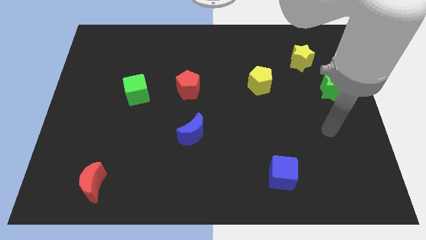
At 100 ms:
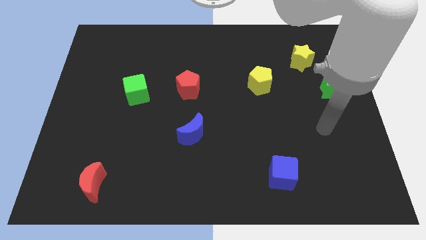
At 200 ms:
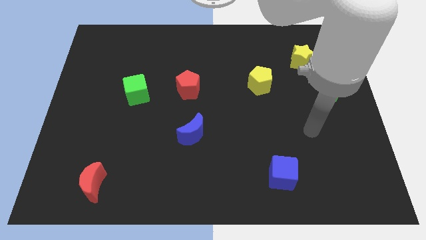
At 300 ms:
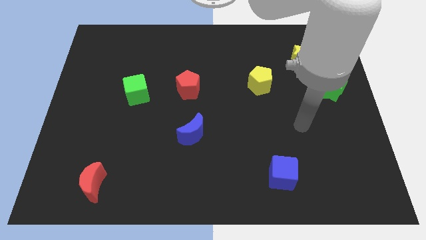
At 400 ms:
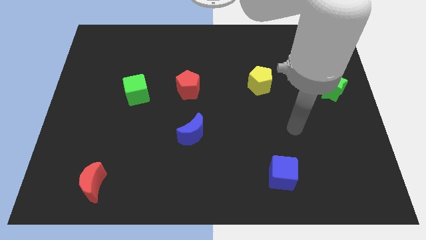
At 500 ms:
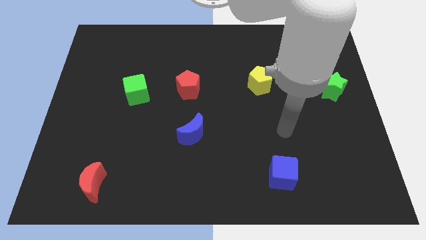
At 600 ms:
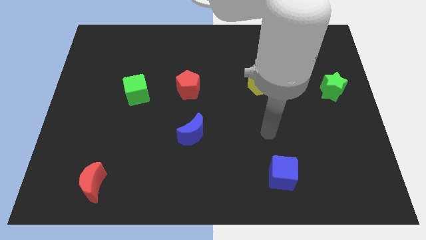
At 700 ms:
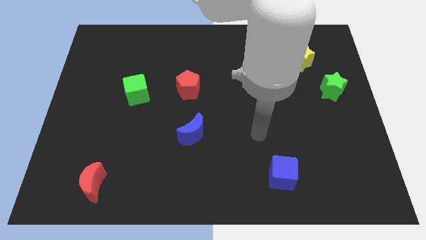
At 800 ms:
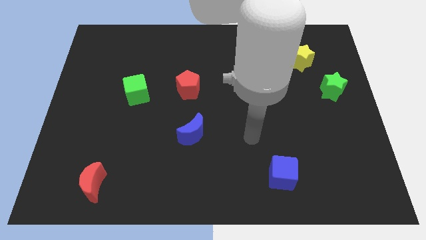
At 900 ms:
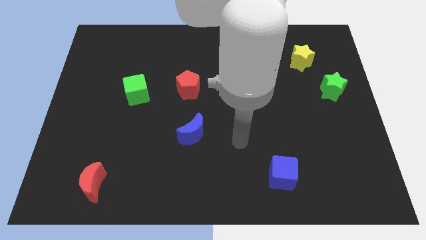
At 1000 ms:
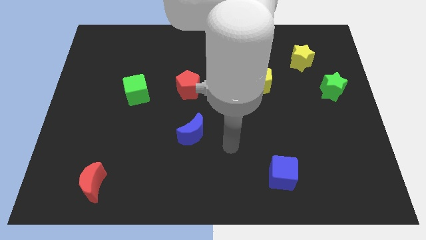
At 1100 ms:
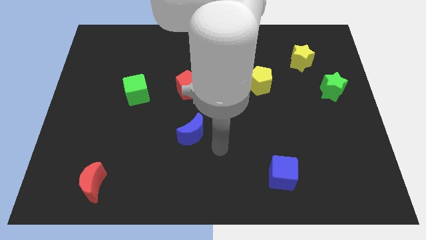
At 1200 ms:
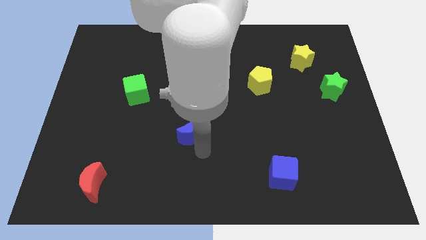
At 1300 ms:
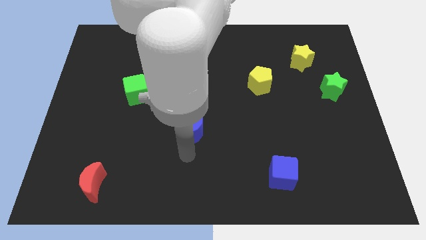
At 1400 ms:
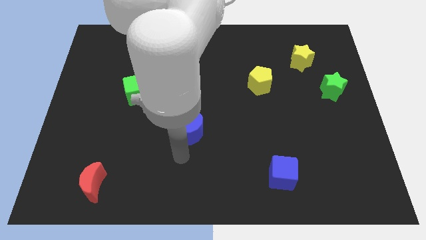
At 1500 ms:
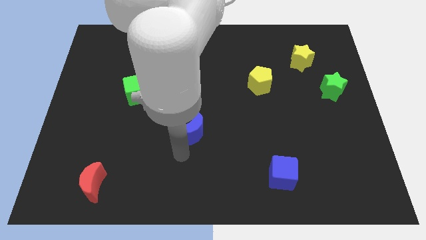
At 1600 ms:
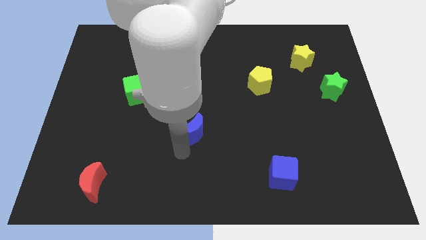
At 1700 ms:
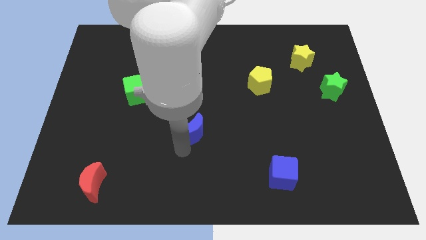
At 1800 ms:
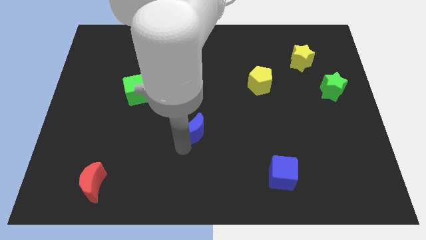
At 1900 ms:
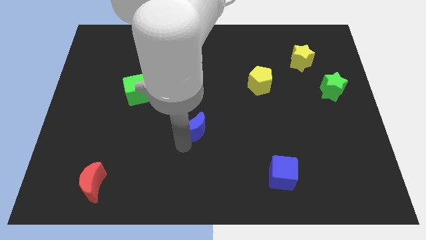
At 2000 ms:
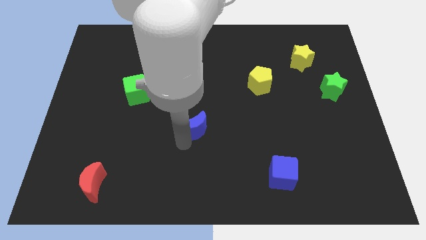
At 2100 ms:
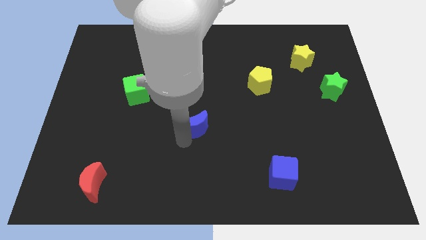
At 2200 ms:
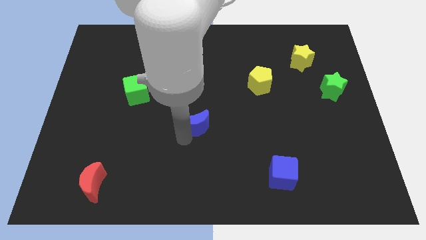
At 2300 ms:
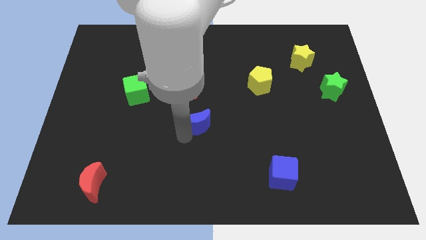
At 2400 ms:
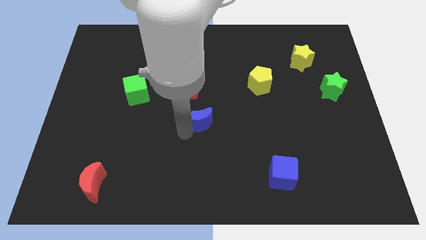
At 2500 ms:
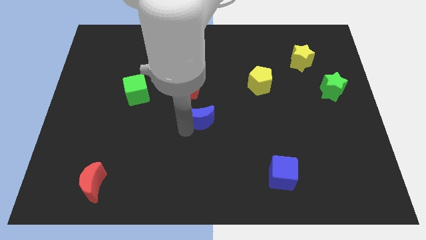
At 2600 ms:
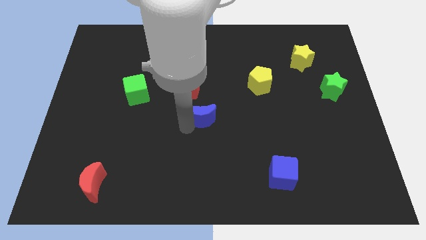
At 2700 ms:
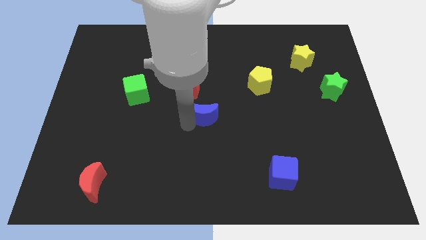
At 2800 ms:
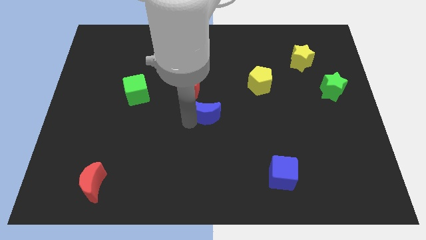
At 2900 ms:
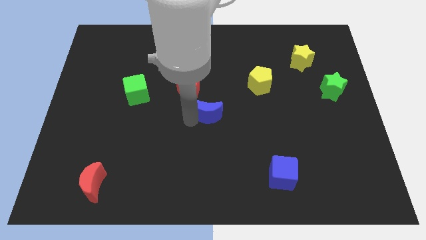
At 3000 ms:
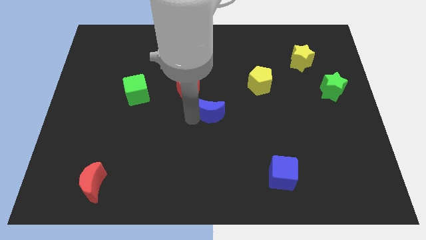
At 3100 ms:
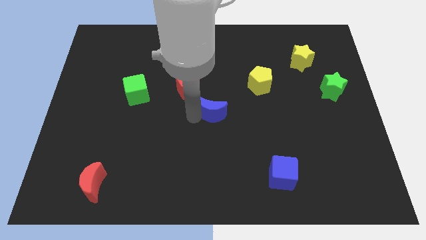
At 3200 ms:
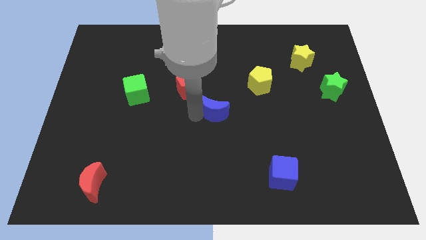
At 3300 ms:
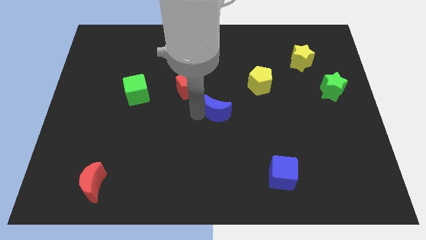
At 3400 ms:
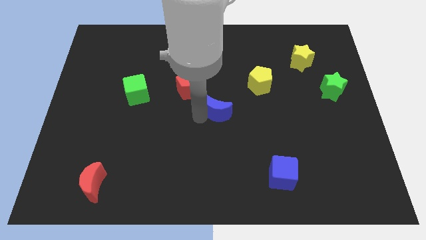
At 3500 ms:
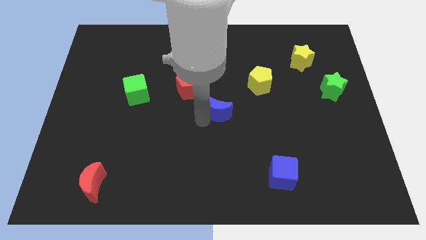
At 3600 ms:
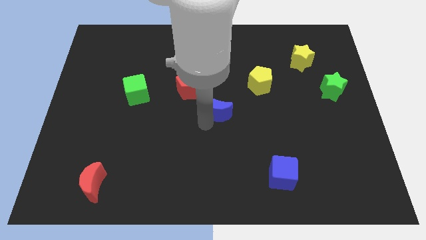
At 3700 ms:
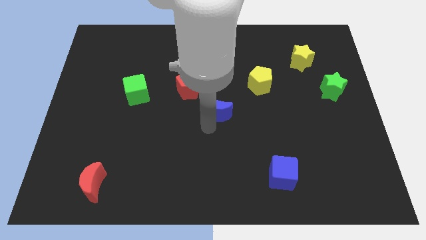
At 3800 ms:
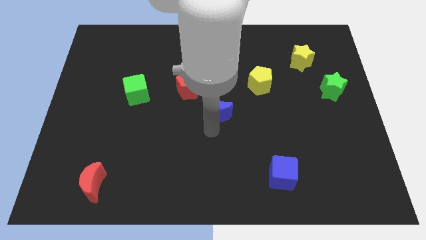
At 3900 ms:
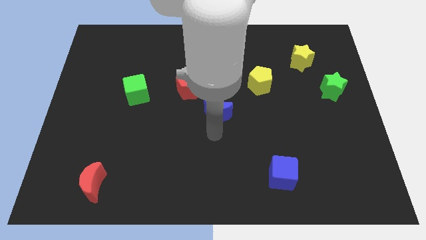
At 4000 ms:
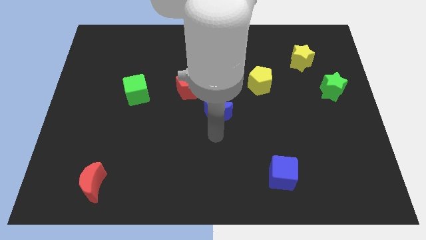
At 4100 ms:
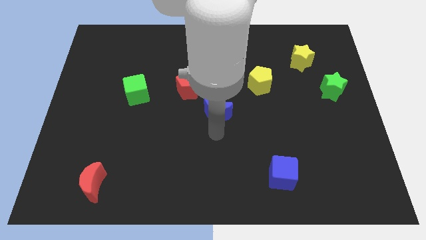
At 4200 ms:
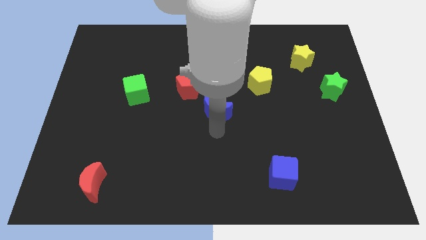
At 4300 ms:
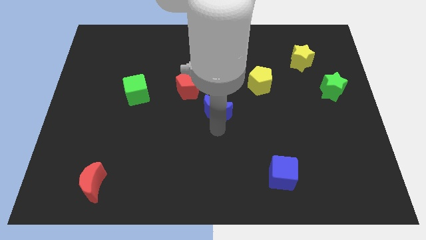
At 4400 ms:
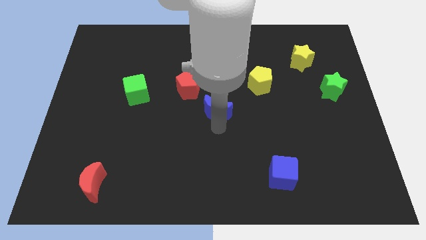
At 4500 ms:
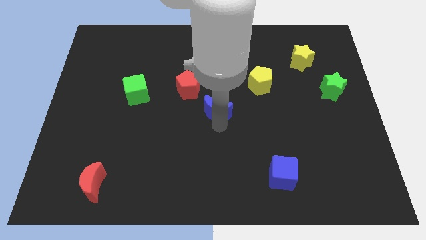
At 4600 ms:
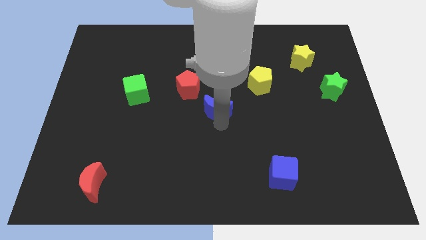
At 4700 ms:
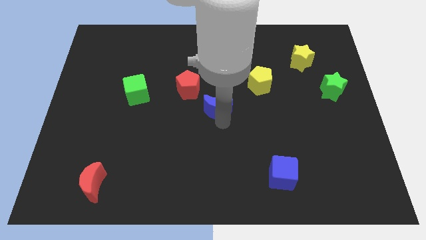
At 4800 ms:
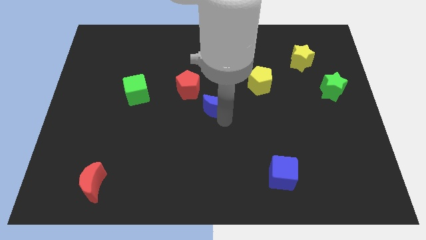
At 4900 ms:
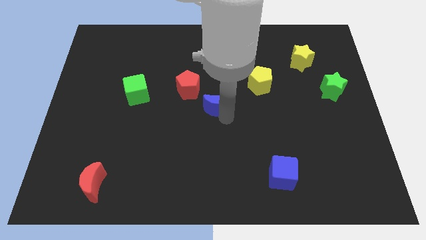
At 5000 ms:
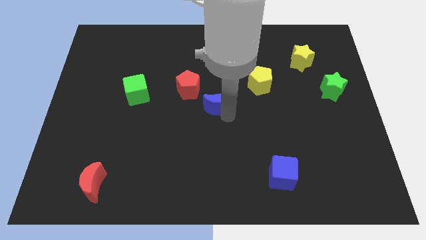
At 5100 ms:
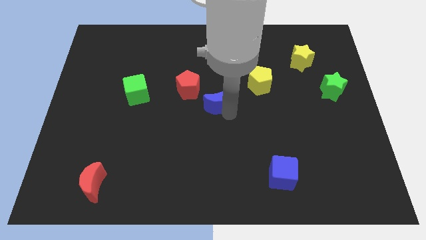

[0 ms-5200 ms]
slide the blue moon somewhat up

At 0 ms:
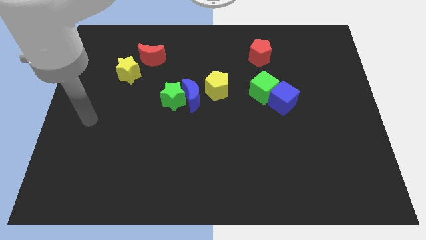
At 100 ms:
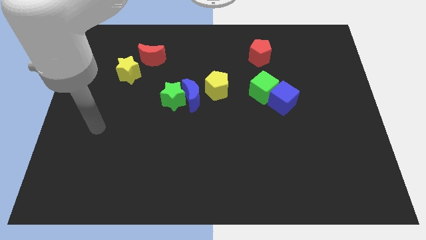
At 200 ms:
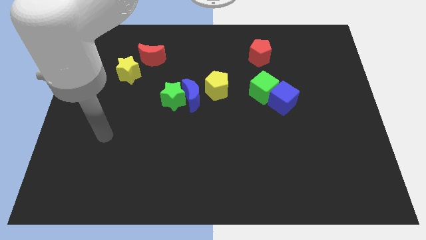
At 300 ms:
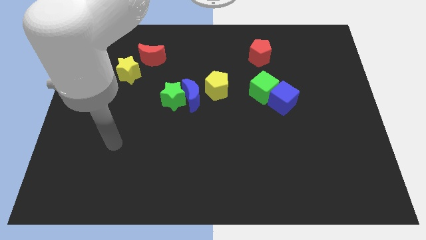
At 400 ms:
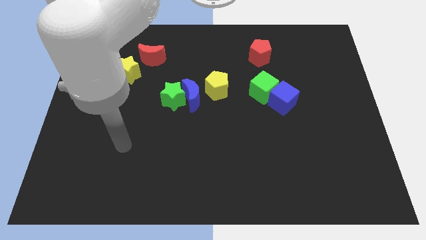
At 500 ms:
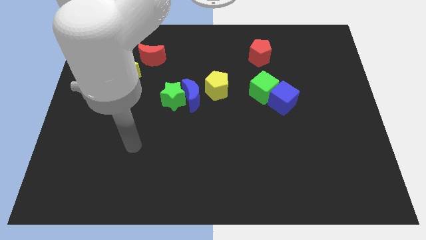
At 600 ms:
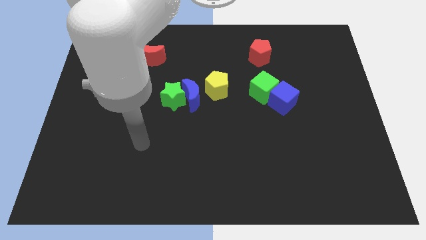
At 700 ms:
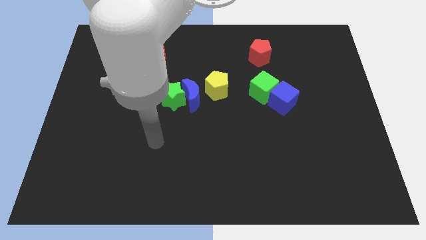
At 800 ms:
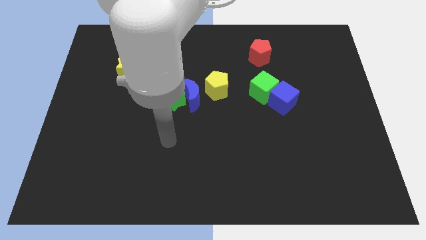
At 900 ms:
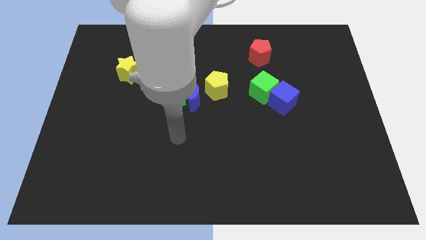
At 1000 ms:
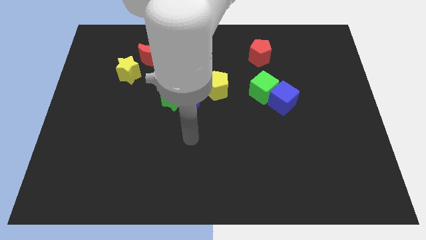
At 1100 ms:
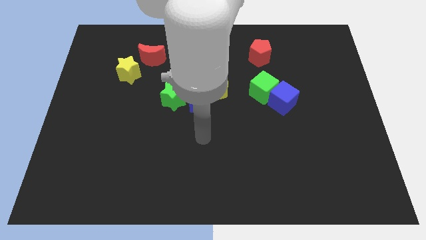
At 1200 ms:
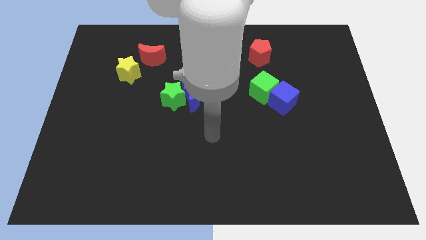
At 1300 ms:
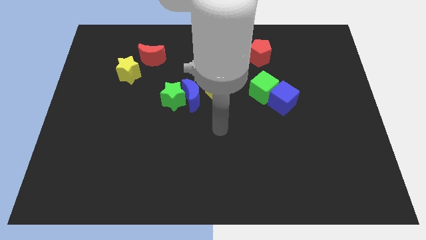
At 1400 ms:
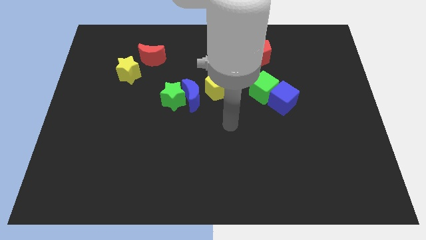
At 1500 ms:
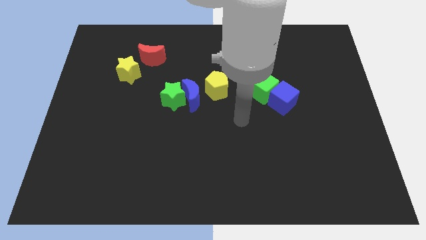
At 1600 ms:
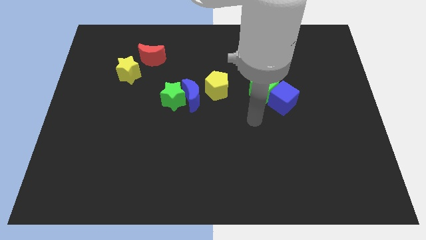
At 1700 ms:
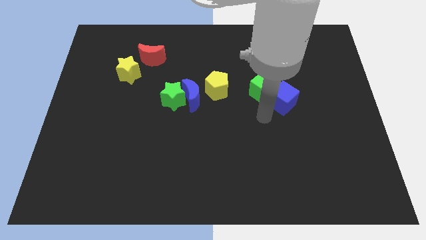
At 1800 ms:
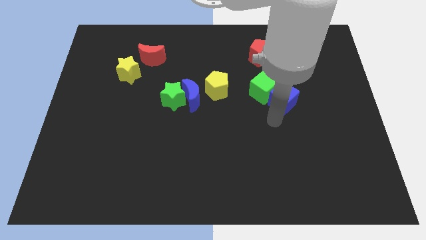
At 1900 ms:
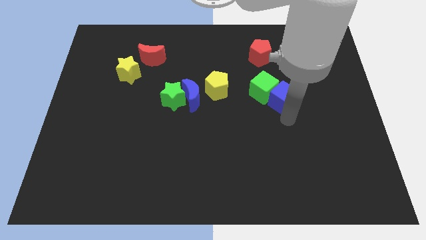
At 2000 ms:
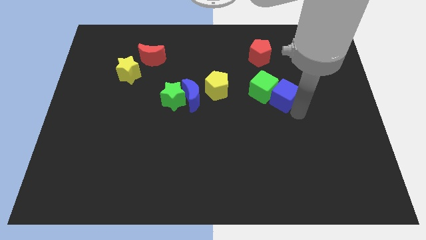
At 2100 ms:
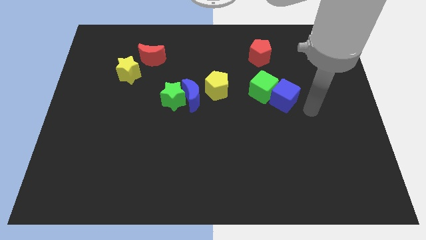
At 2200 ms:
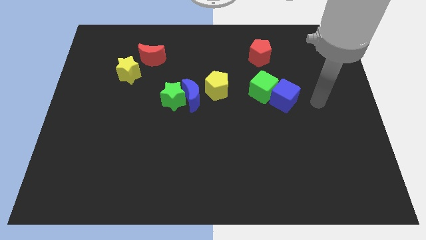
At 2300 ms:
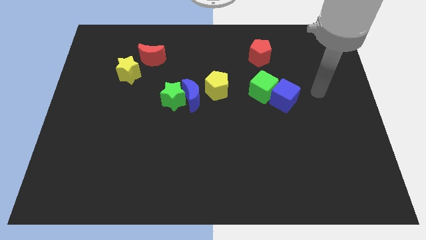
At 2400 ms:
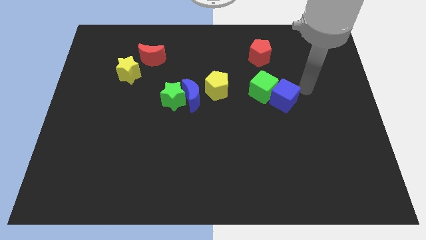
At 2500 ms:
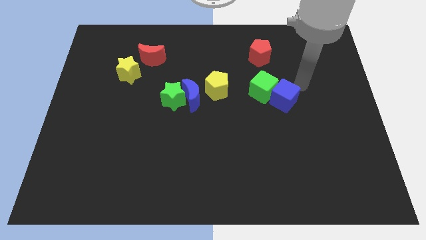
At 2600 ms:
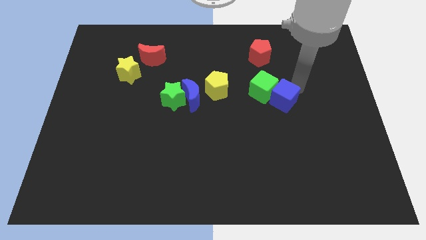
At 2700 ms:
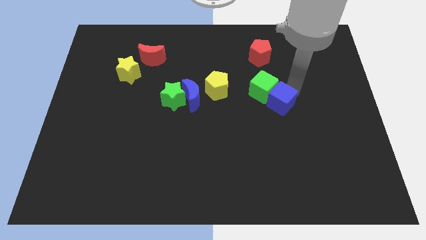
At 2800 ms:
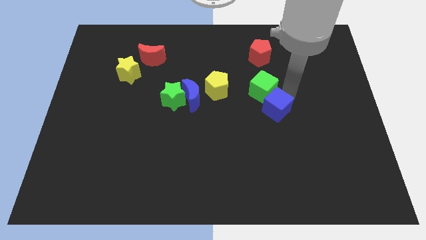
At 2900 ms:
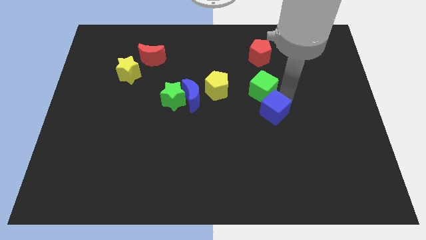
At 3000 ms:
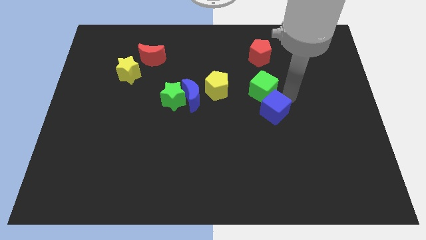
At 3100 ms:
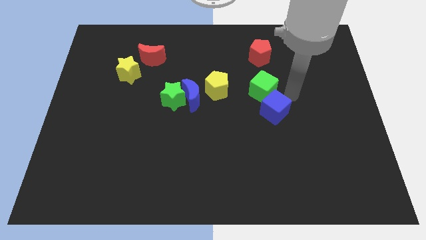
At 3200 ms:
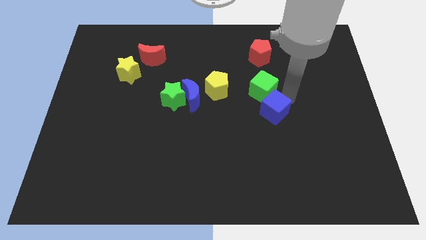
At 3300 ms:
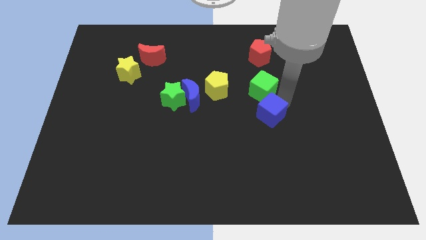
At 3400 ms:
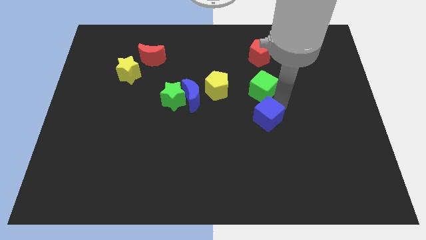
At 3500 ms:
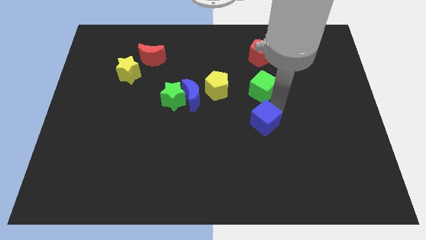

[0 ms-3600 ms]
slightly slide the blue cube downwards and left diagonally
